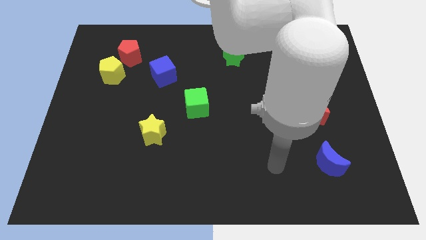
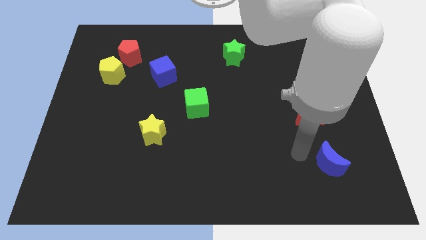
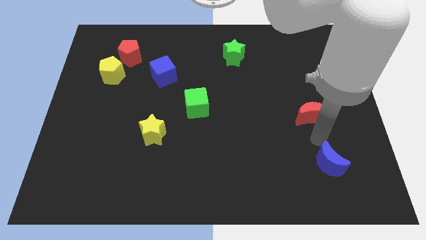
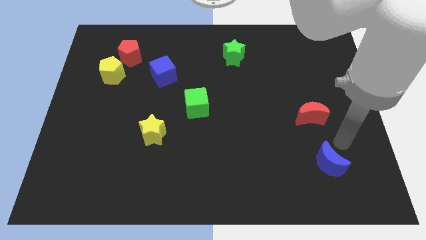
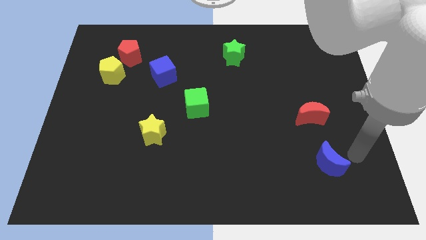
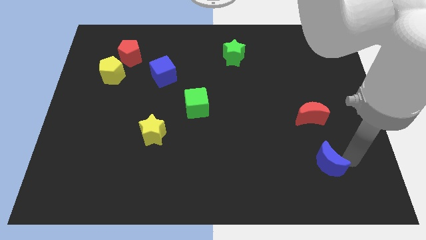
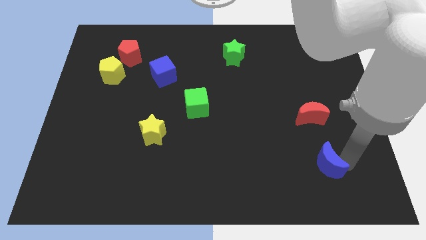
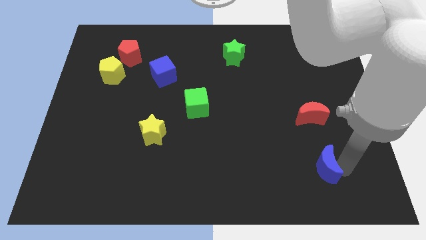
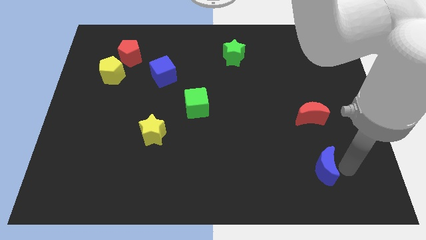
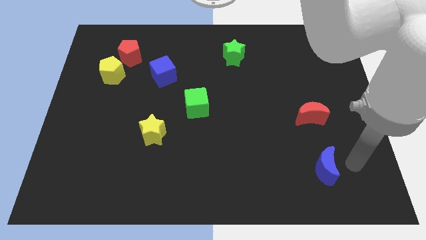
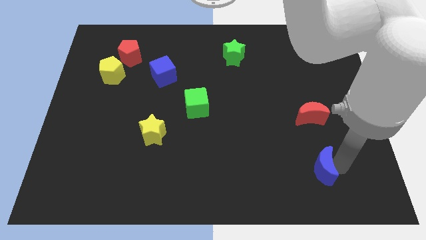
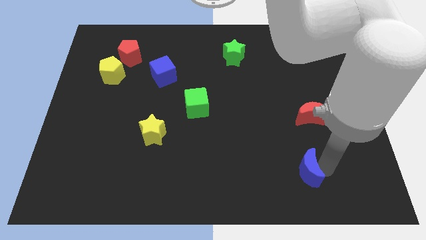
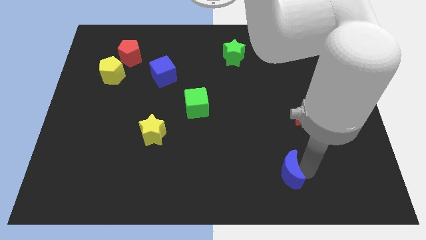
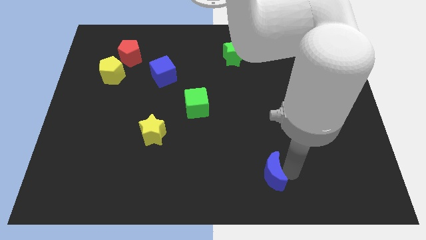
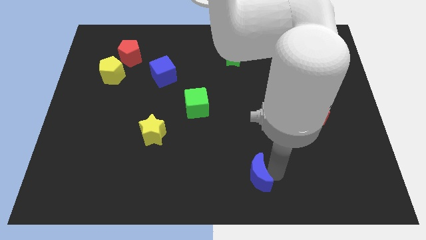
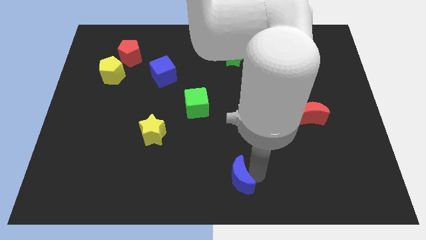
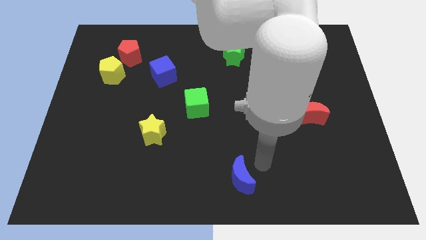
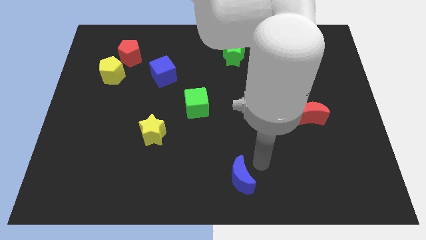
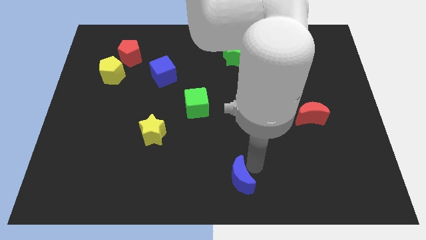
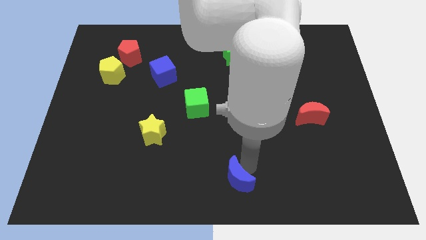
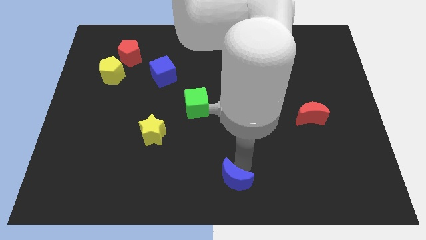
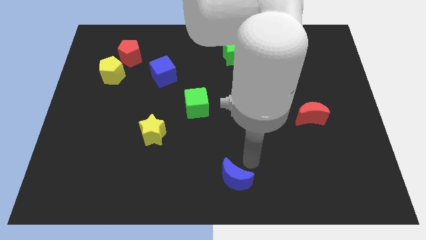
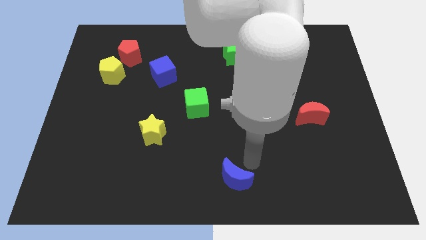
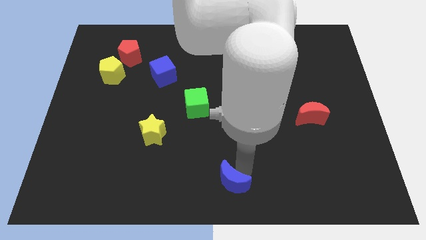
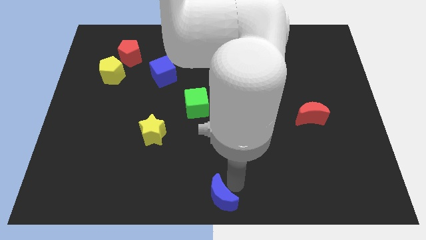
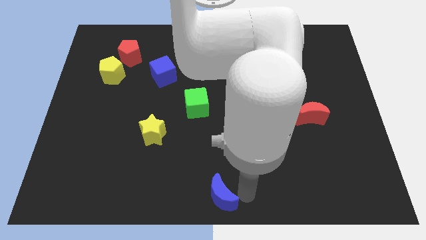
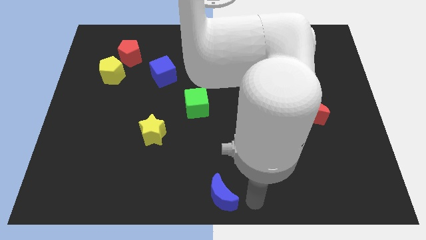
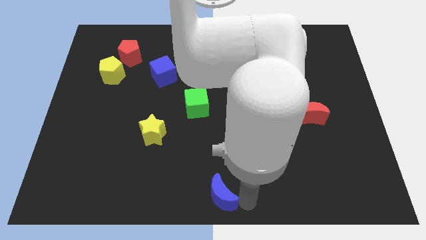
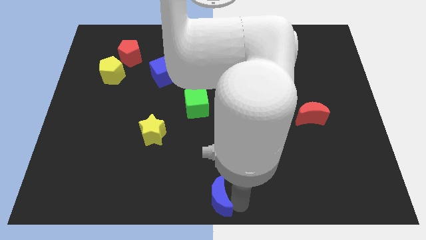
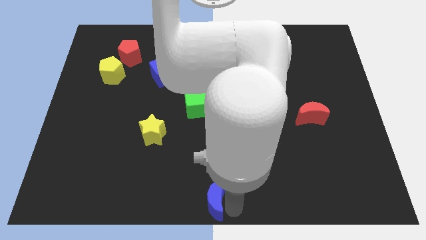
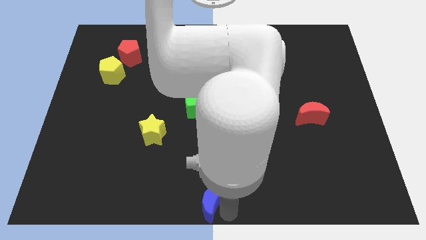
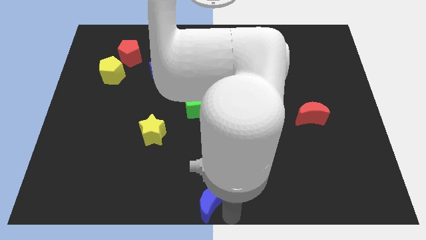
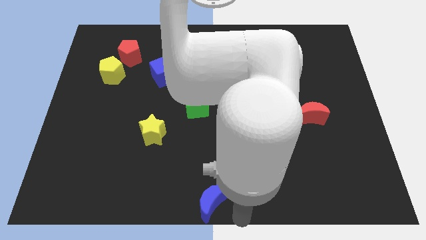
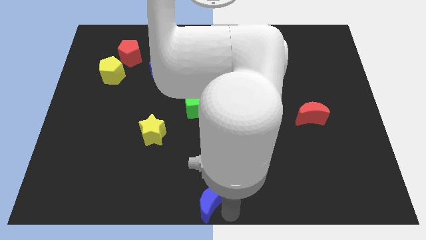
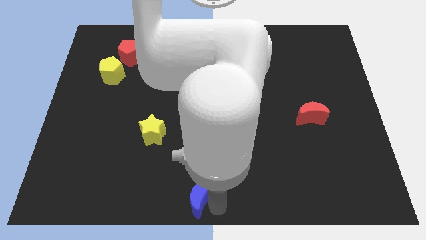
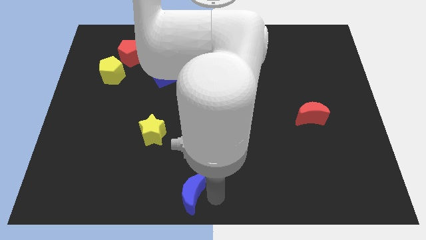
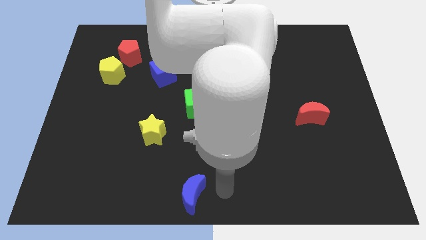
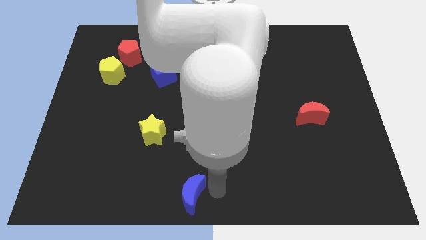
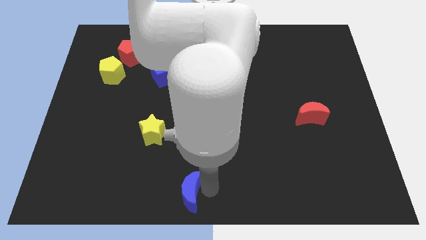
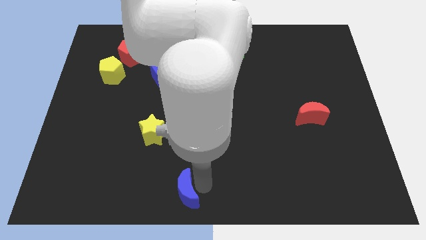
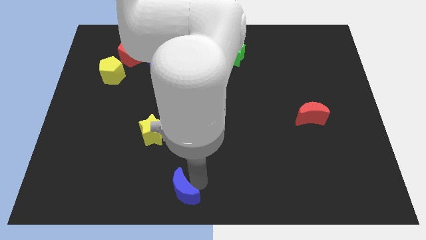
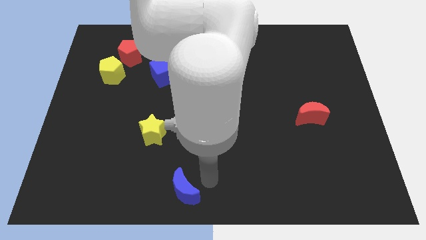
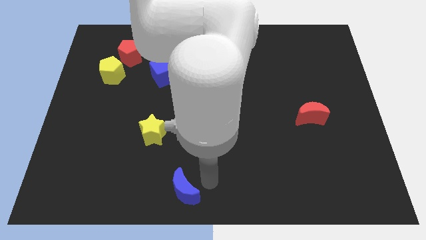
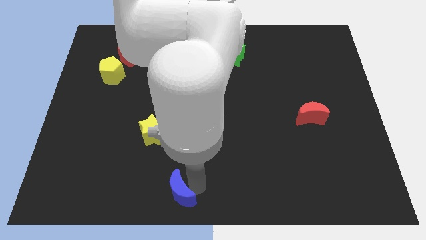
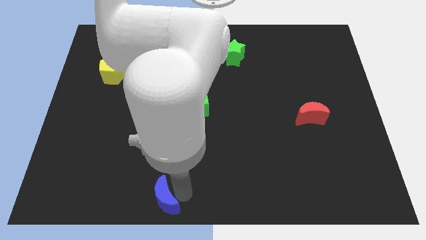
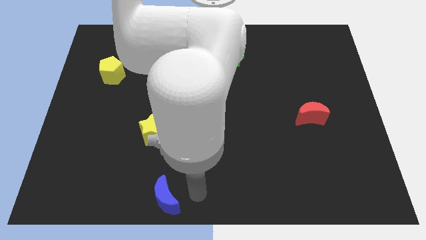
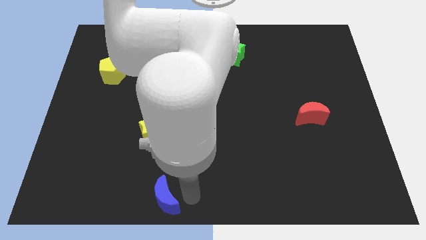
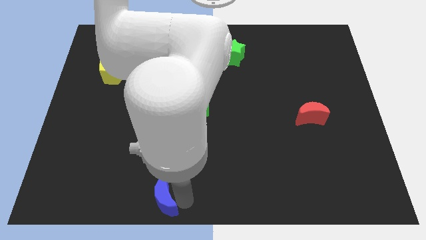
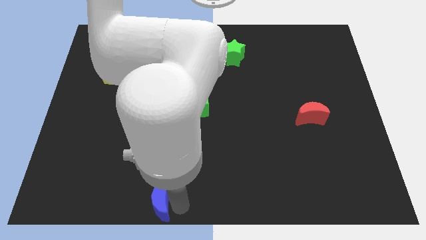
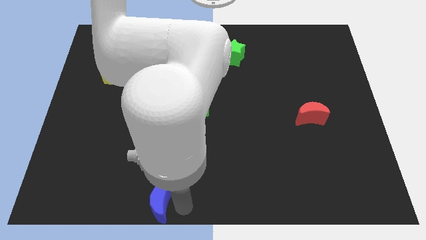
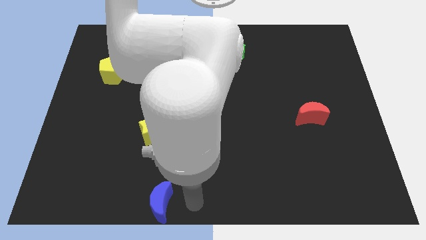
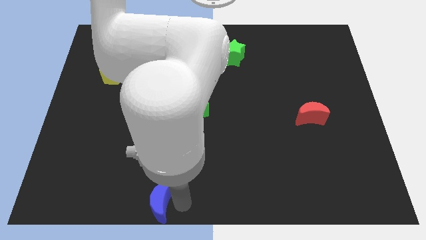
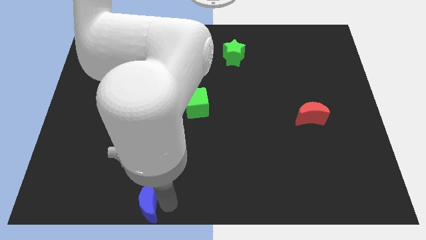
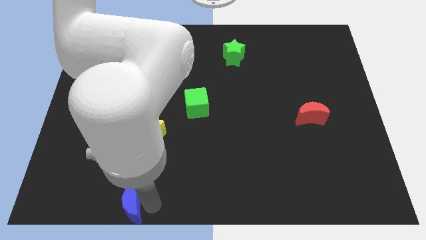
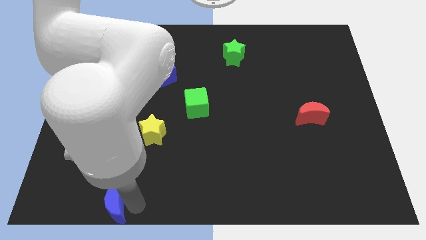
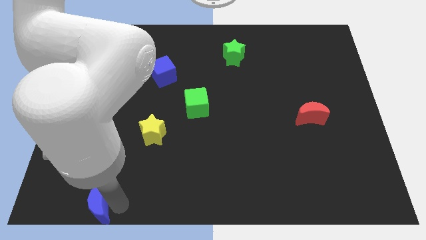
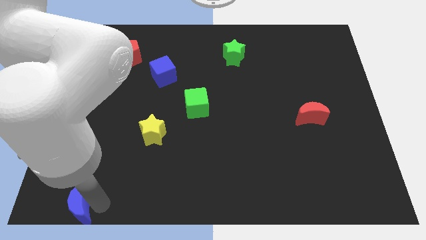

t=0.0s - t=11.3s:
put the blue moon to the bottom left

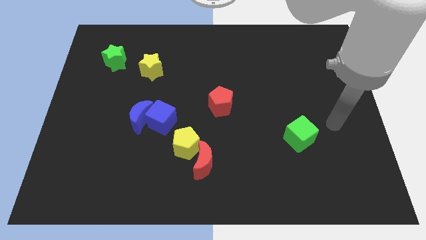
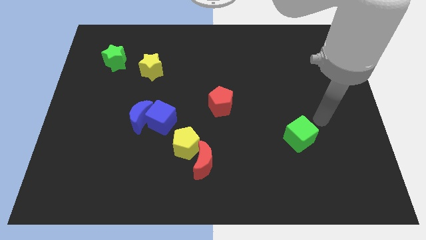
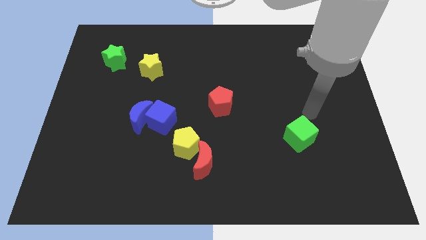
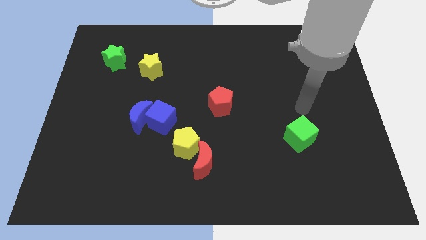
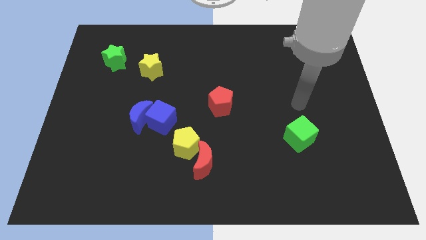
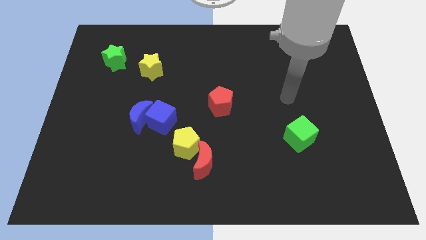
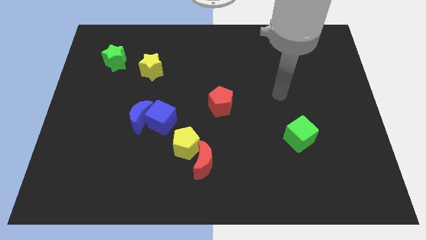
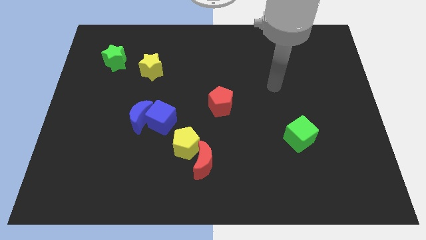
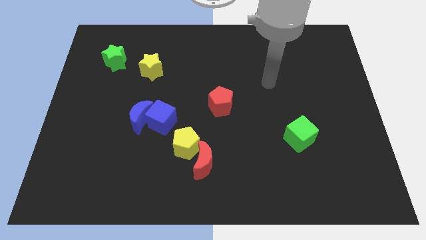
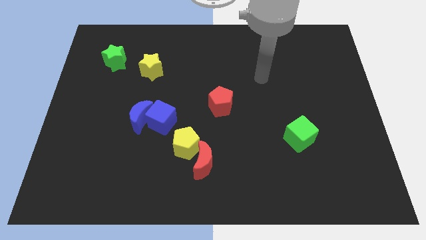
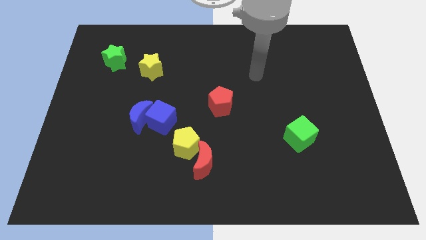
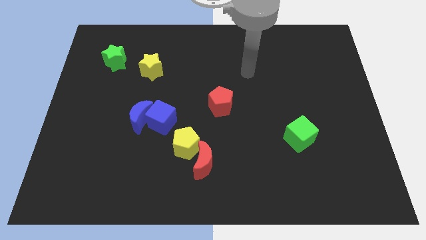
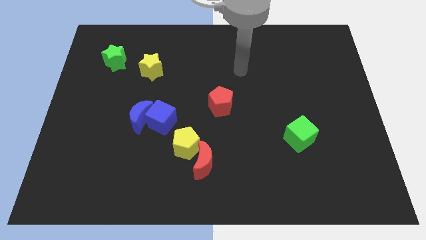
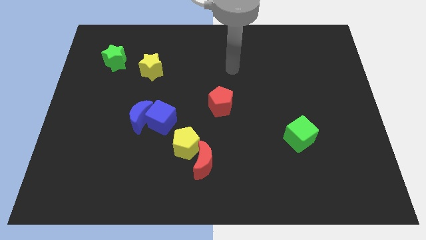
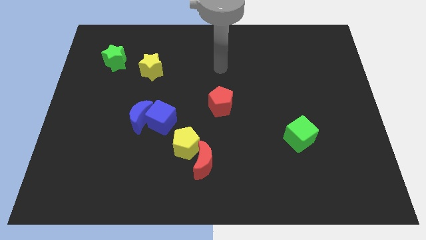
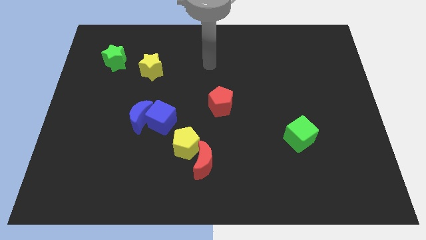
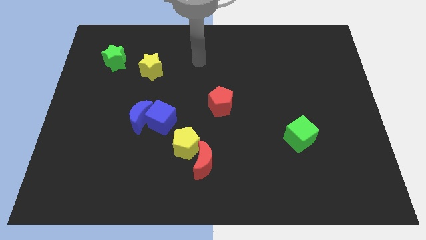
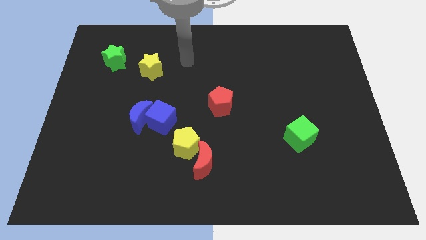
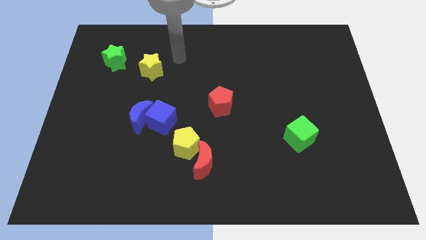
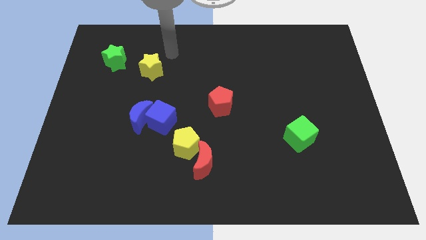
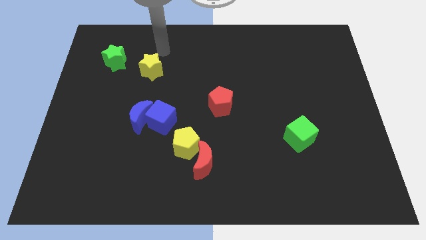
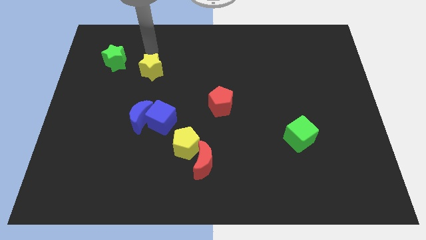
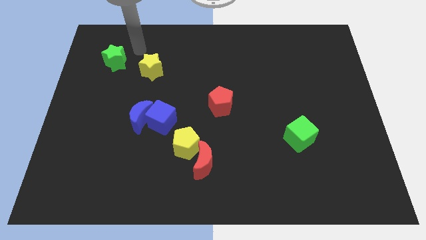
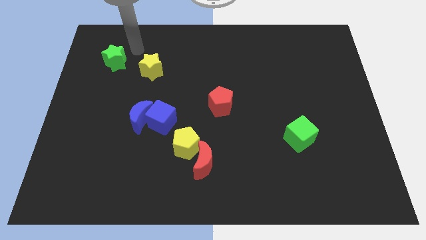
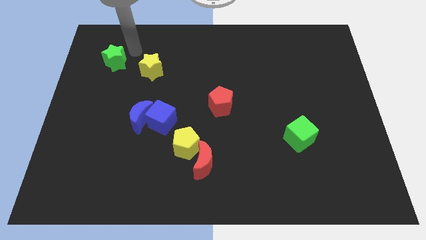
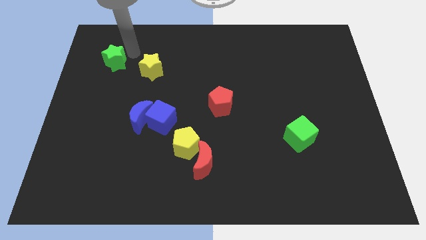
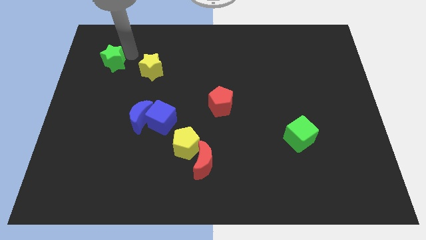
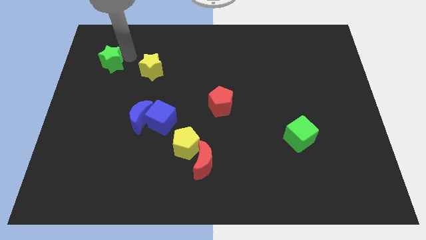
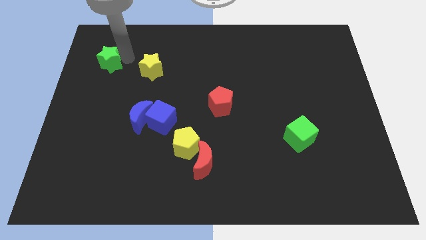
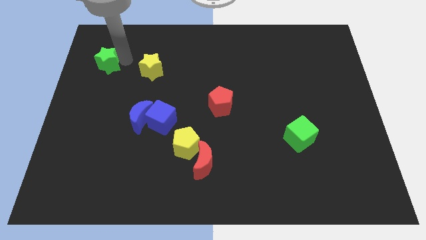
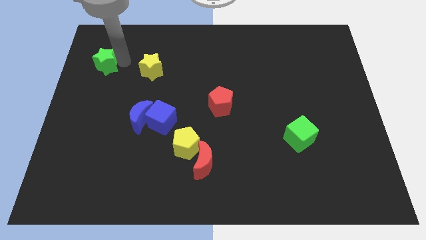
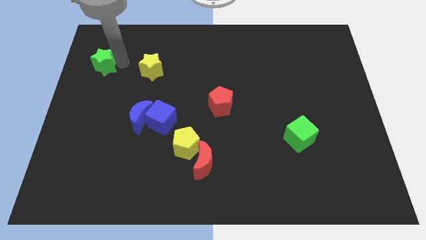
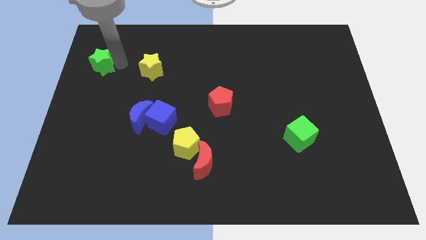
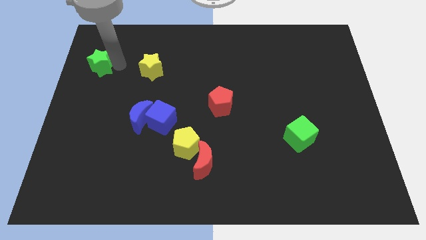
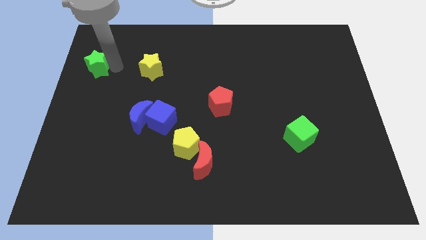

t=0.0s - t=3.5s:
put the green star to the left side
